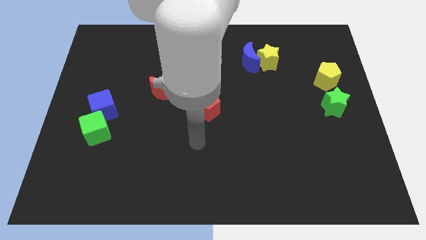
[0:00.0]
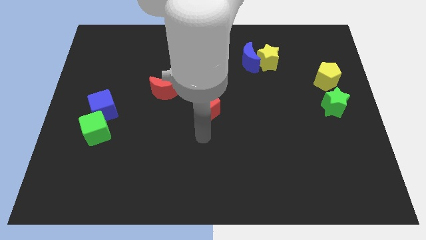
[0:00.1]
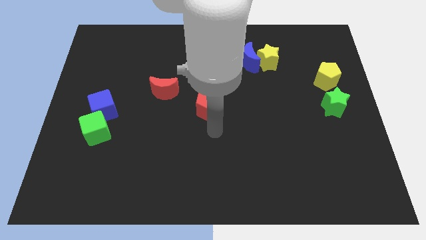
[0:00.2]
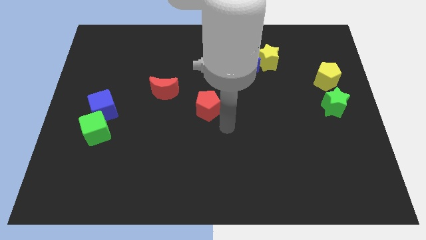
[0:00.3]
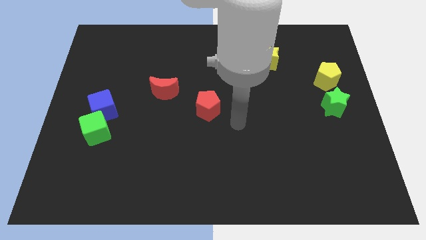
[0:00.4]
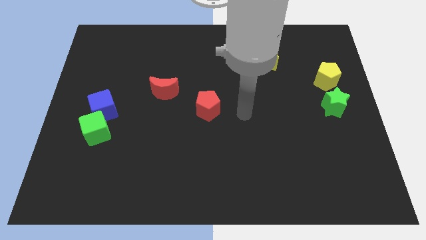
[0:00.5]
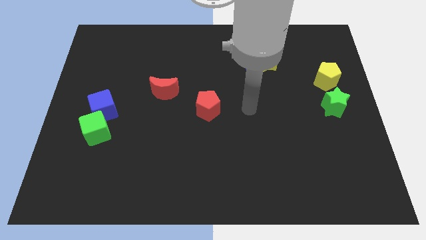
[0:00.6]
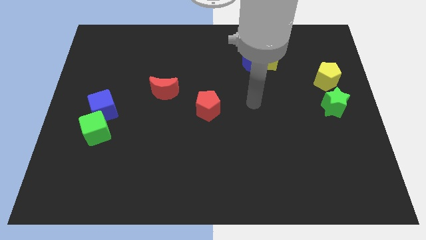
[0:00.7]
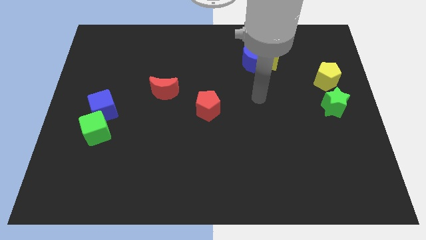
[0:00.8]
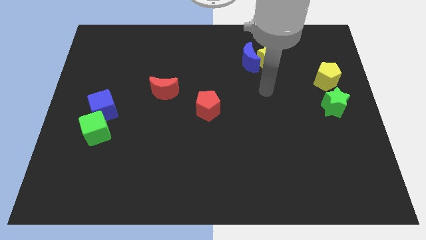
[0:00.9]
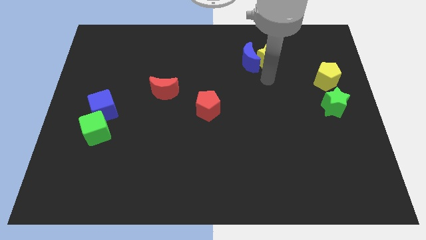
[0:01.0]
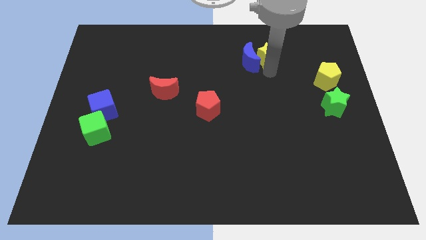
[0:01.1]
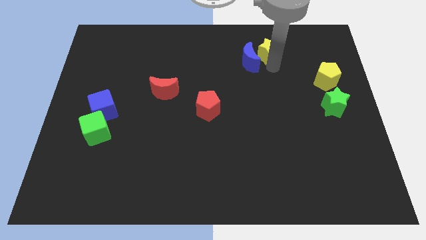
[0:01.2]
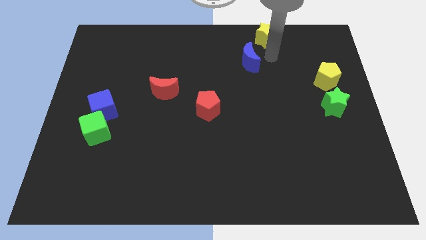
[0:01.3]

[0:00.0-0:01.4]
separate the blue moon from the yellow star

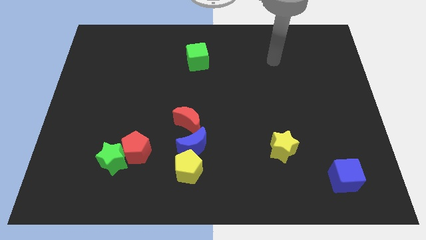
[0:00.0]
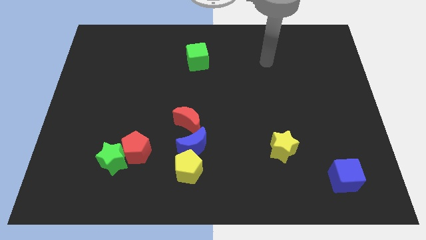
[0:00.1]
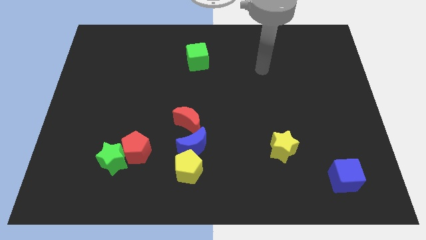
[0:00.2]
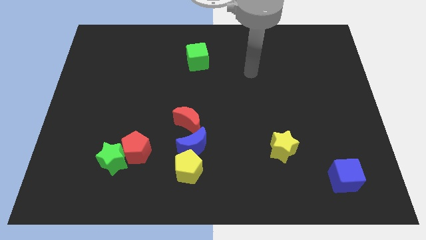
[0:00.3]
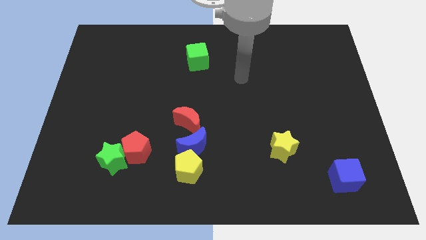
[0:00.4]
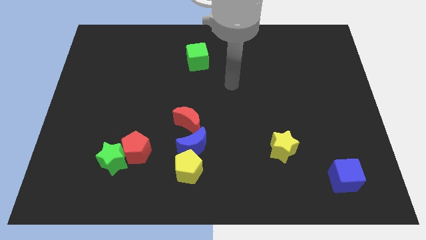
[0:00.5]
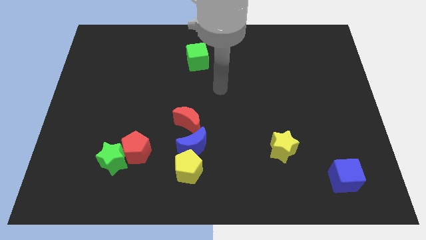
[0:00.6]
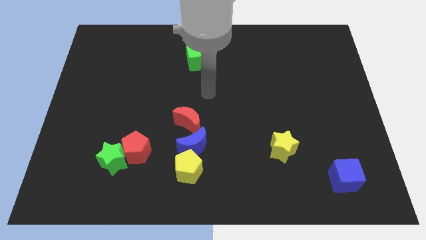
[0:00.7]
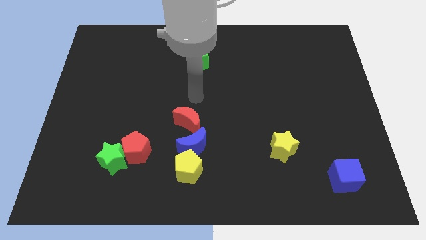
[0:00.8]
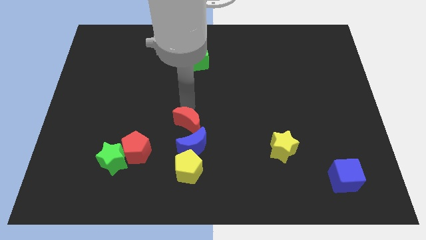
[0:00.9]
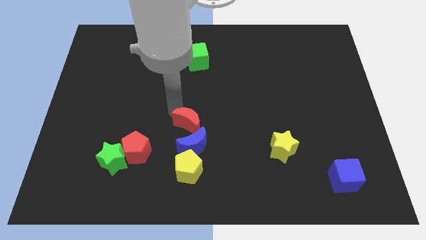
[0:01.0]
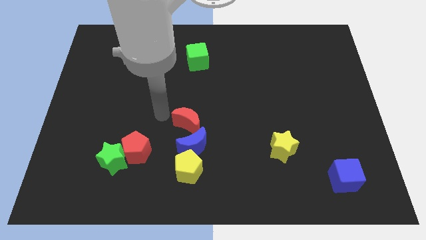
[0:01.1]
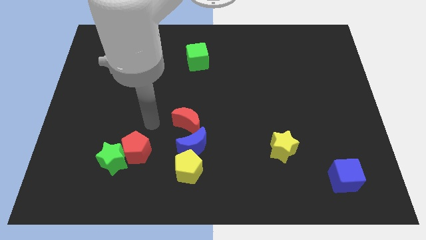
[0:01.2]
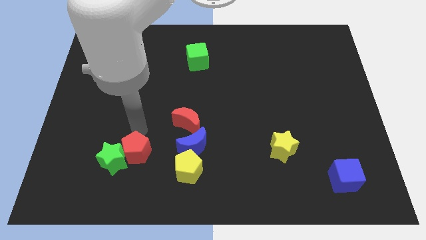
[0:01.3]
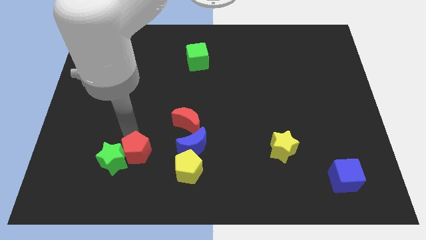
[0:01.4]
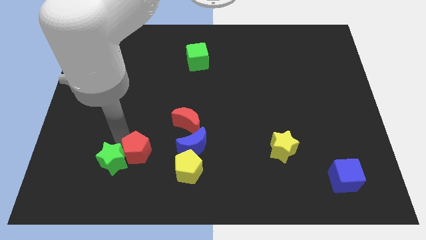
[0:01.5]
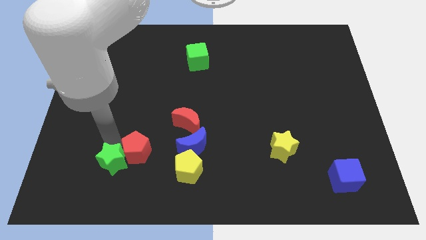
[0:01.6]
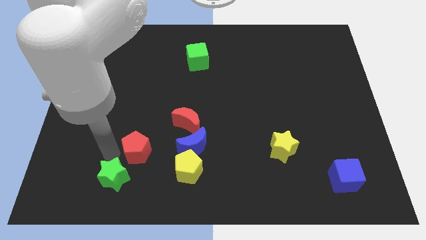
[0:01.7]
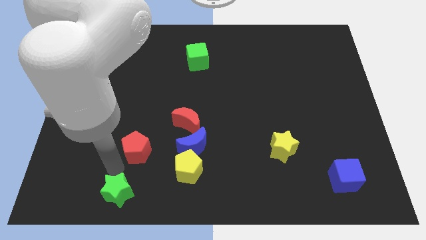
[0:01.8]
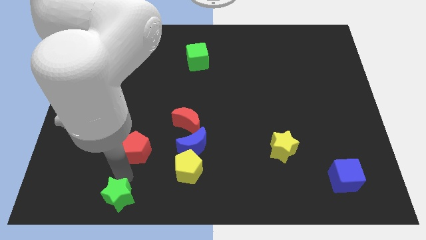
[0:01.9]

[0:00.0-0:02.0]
separate the red pentagon from the green star

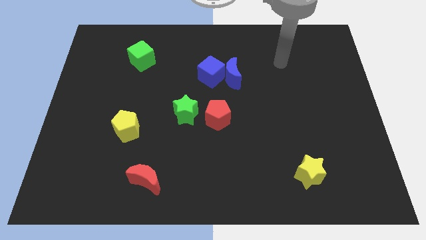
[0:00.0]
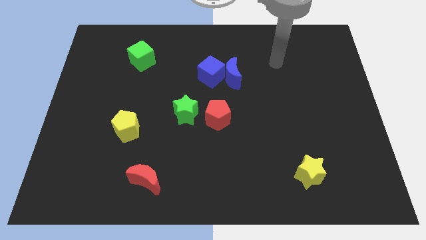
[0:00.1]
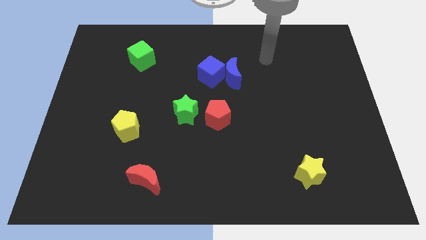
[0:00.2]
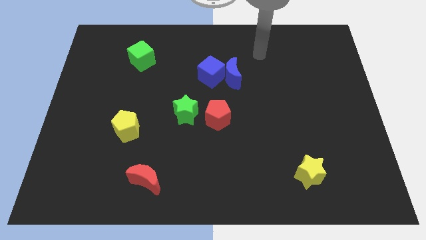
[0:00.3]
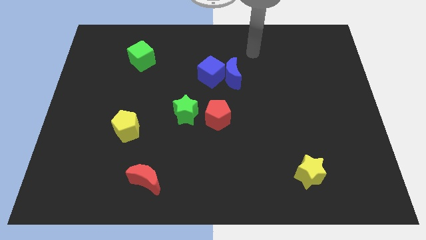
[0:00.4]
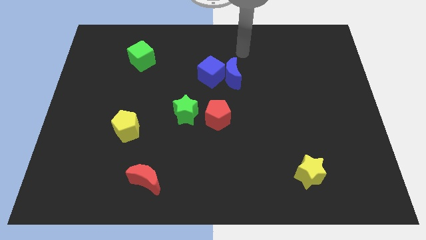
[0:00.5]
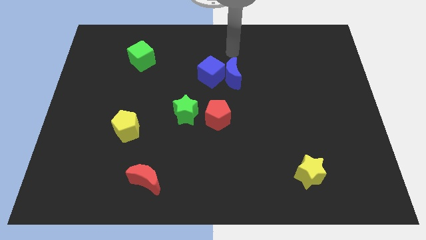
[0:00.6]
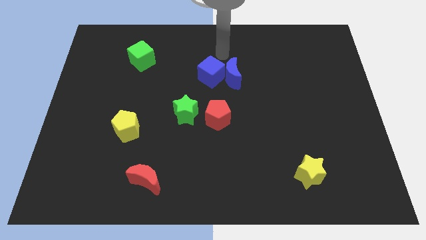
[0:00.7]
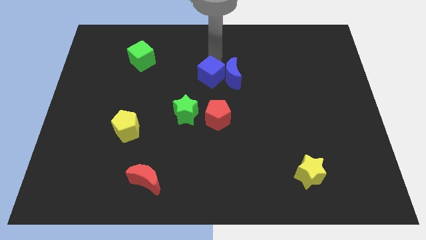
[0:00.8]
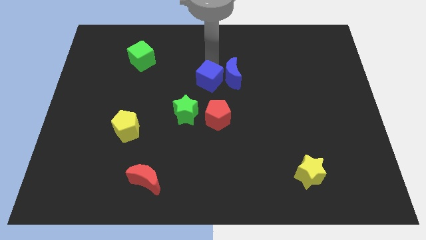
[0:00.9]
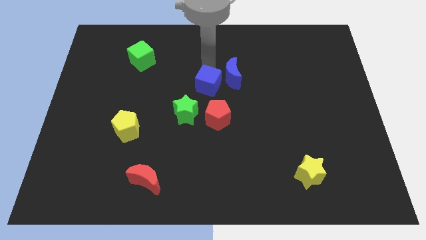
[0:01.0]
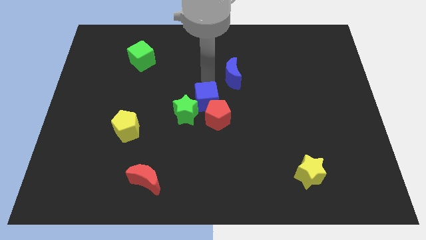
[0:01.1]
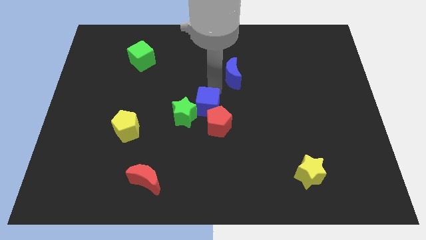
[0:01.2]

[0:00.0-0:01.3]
pull the blue moon apart from the blue cube

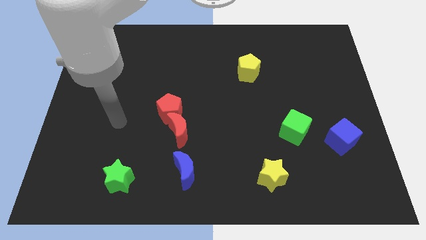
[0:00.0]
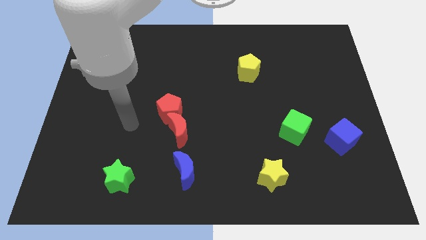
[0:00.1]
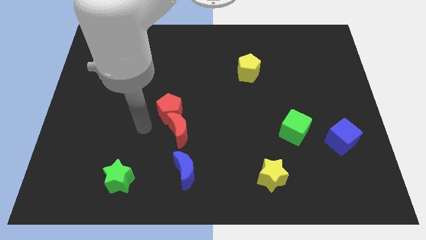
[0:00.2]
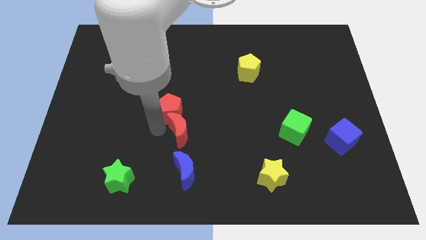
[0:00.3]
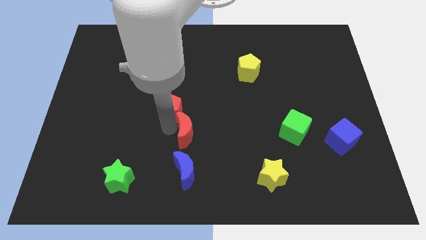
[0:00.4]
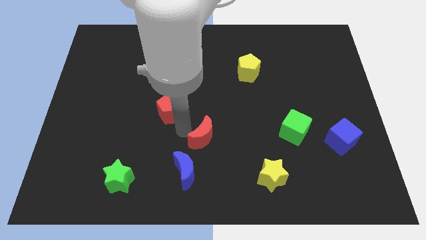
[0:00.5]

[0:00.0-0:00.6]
pull the red pentagon apart from the red moon

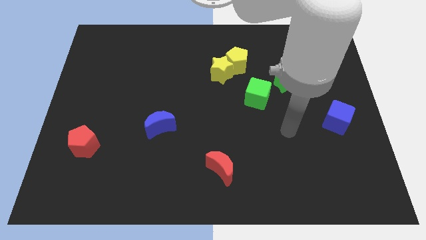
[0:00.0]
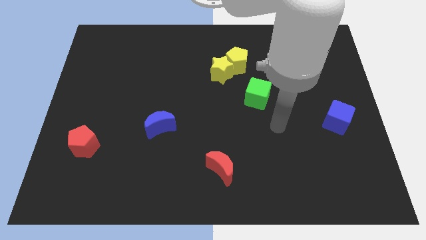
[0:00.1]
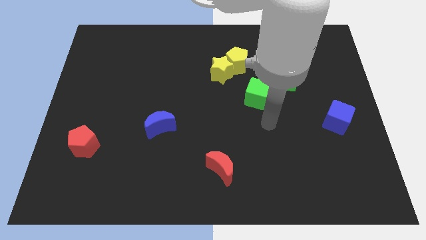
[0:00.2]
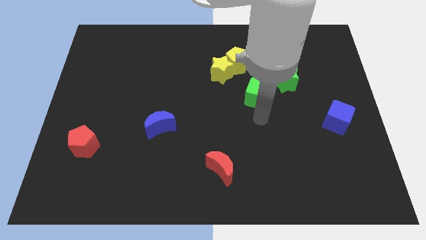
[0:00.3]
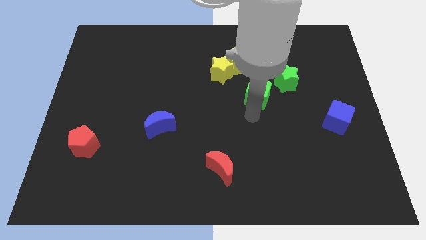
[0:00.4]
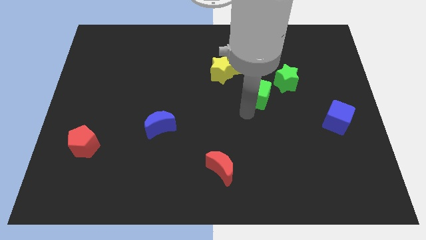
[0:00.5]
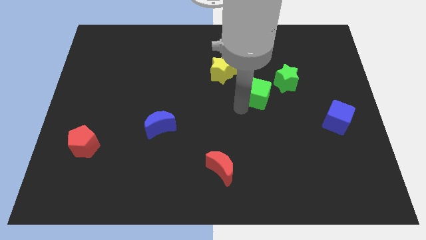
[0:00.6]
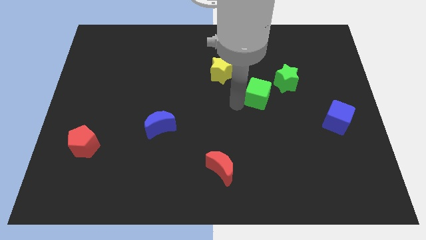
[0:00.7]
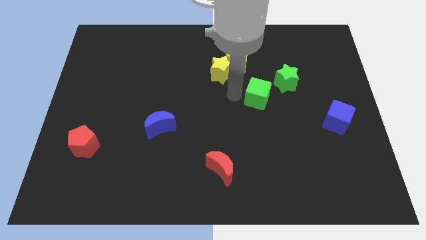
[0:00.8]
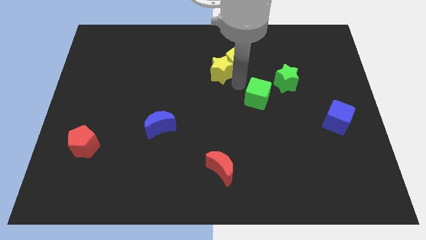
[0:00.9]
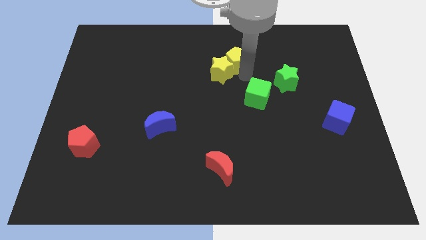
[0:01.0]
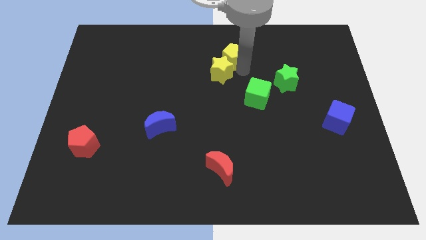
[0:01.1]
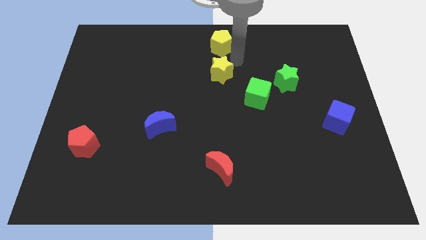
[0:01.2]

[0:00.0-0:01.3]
move the yellow star away from the yellow pentagon

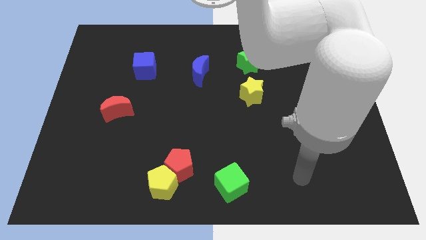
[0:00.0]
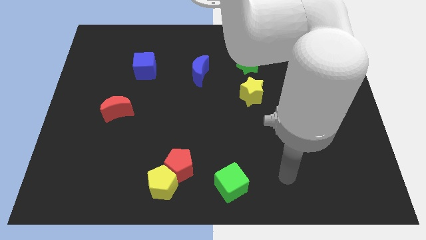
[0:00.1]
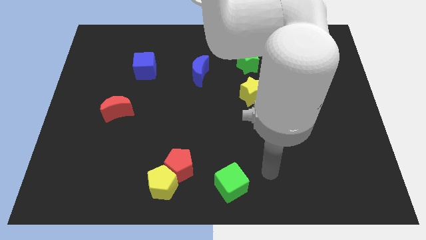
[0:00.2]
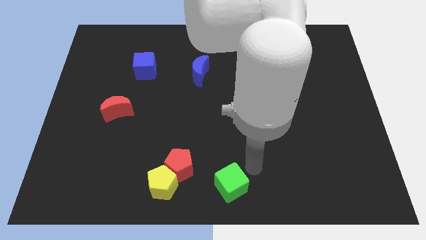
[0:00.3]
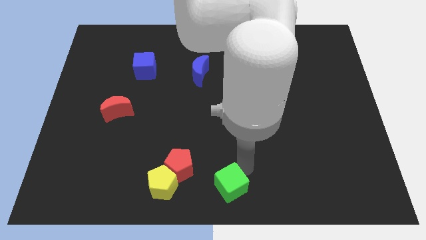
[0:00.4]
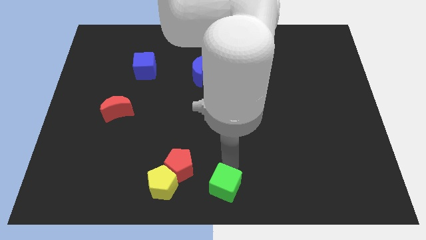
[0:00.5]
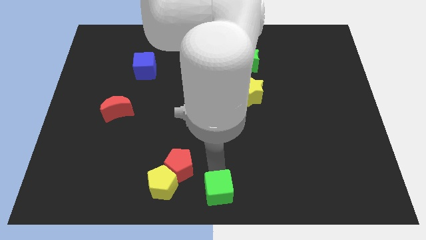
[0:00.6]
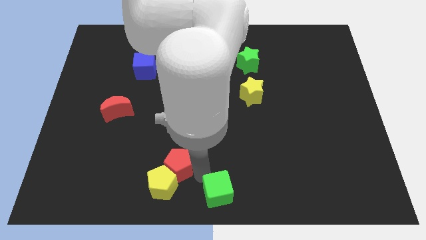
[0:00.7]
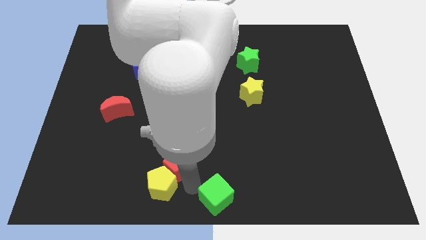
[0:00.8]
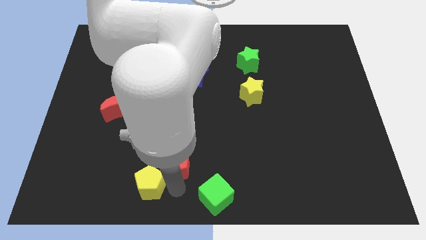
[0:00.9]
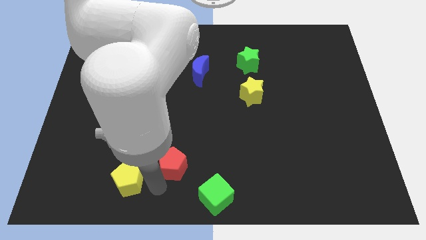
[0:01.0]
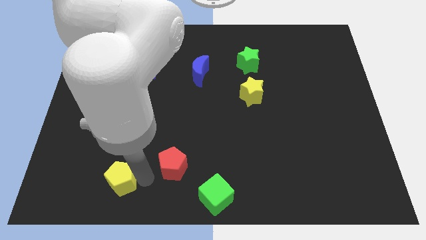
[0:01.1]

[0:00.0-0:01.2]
move the red pentagon away from the yellow pentagon

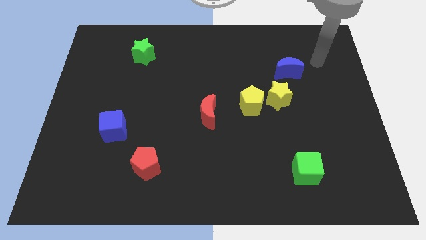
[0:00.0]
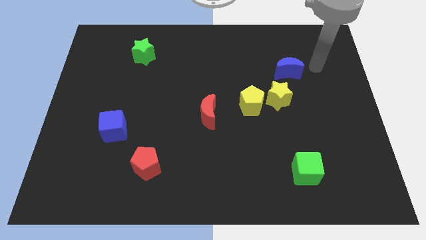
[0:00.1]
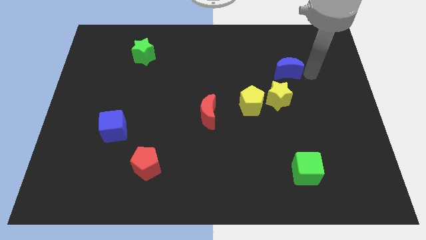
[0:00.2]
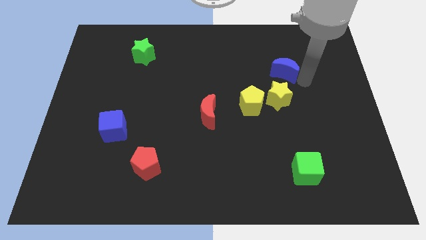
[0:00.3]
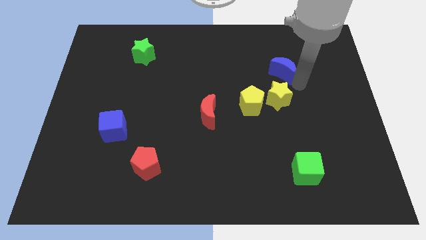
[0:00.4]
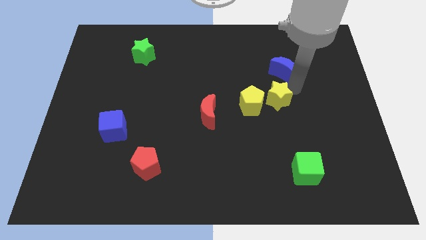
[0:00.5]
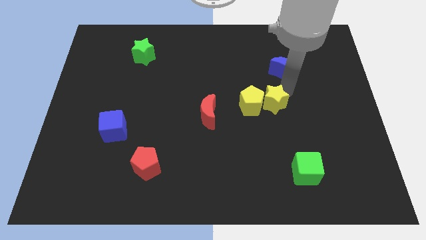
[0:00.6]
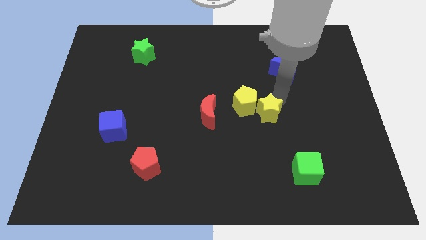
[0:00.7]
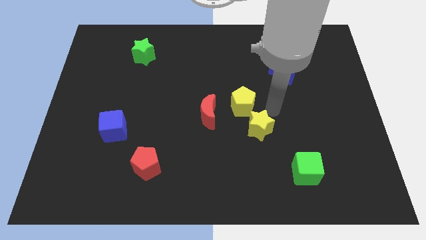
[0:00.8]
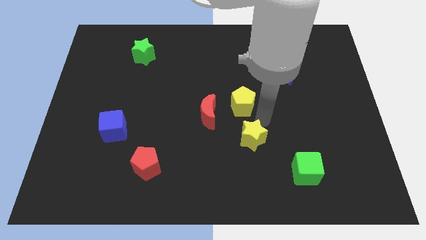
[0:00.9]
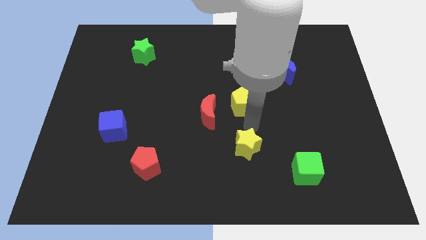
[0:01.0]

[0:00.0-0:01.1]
move the yellow pentagon away from the yellow star

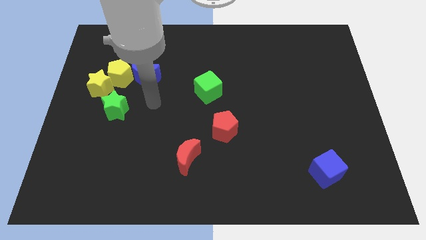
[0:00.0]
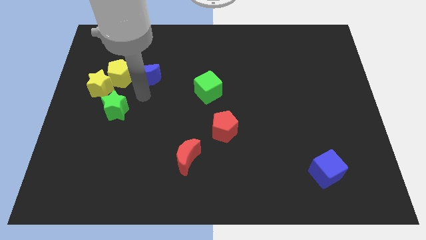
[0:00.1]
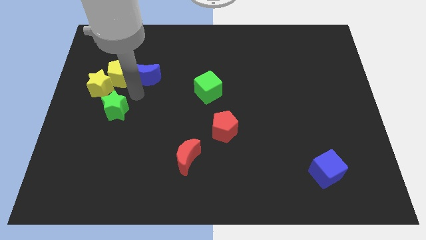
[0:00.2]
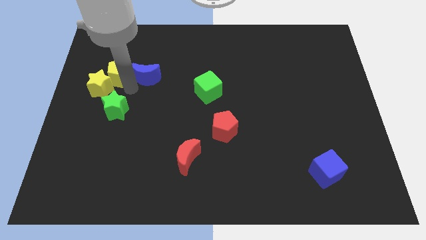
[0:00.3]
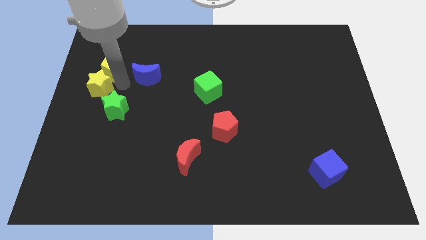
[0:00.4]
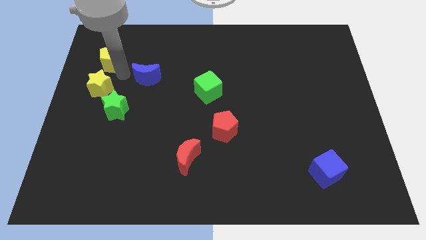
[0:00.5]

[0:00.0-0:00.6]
move the blue moon away from the yellow pentagon
